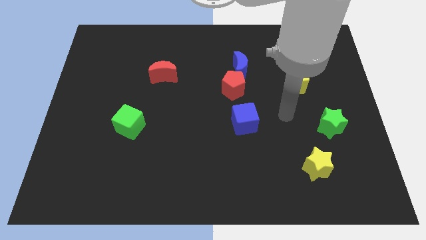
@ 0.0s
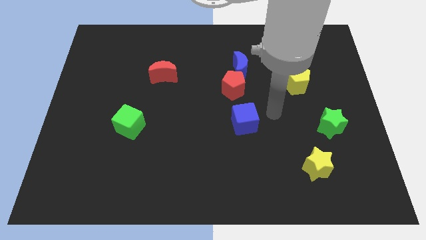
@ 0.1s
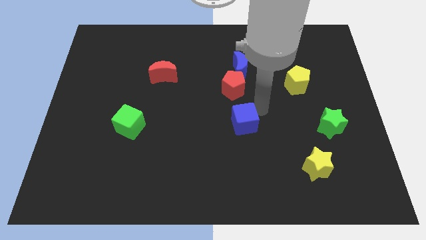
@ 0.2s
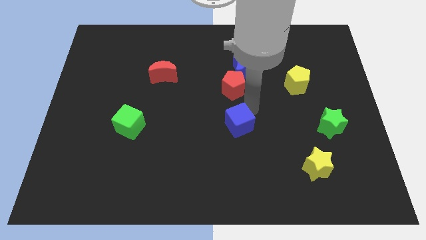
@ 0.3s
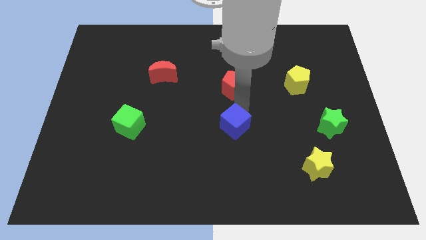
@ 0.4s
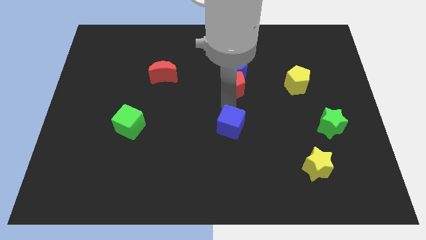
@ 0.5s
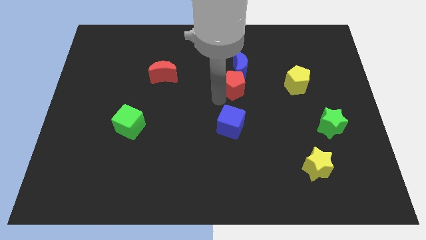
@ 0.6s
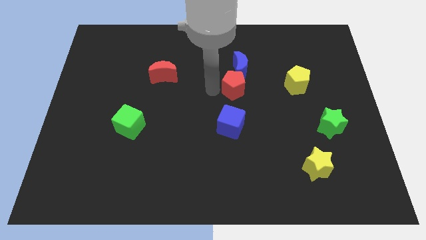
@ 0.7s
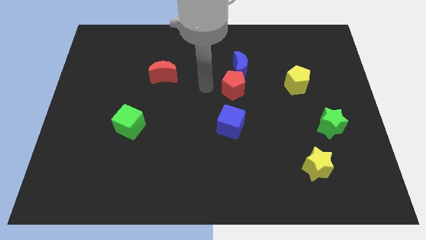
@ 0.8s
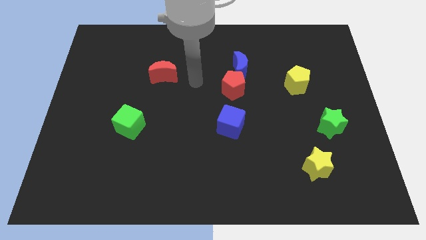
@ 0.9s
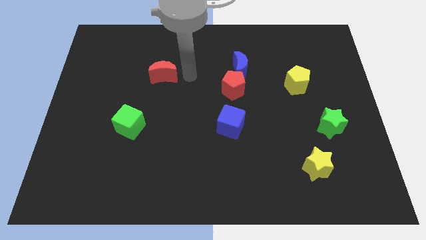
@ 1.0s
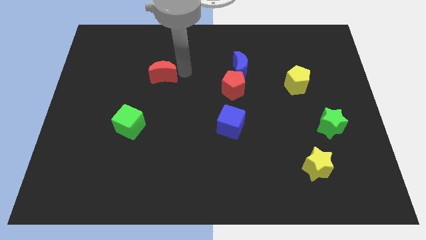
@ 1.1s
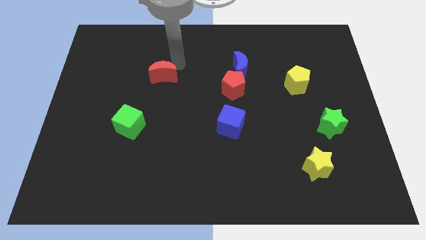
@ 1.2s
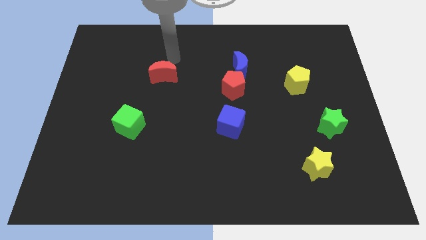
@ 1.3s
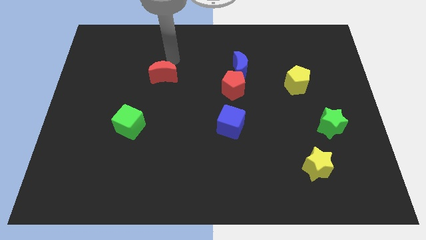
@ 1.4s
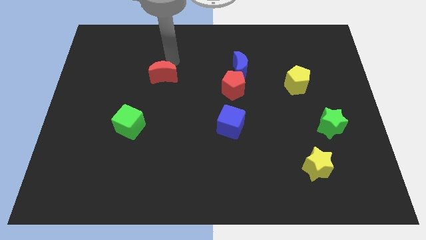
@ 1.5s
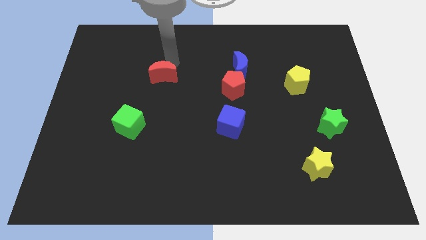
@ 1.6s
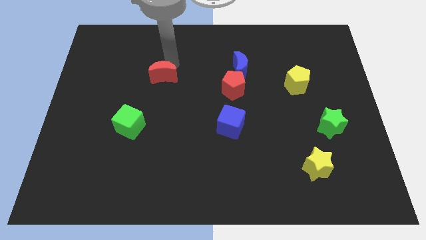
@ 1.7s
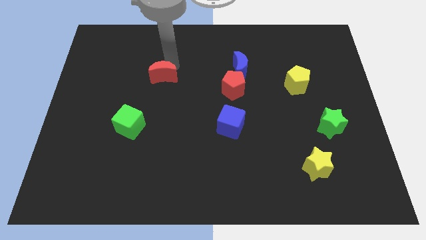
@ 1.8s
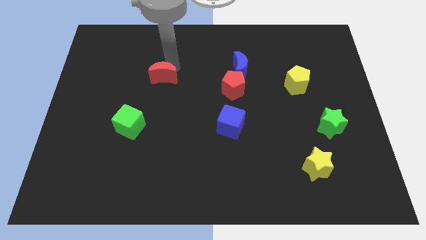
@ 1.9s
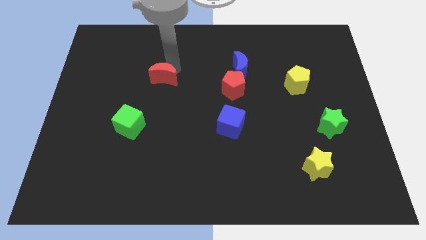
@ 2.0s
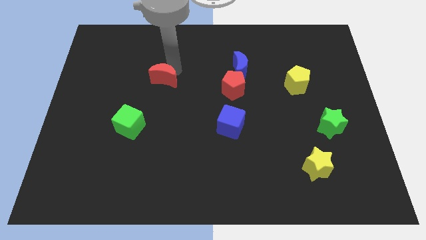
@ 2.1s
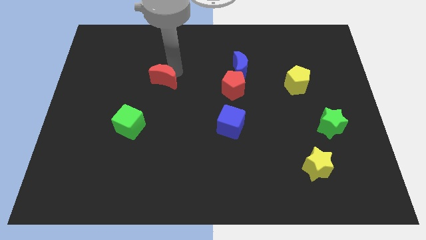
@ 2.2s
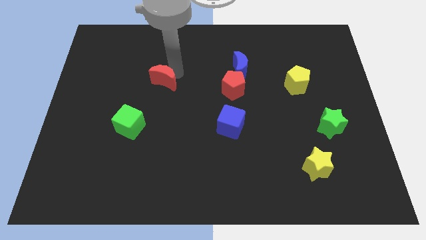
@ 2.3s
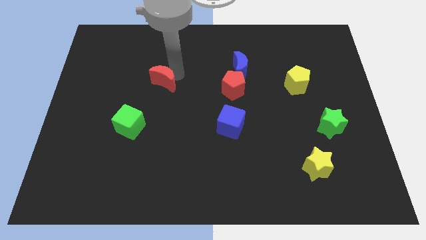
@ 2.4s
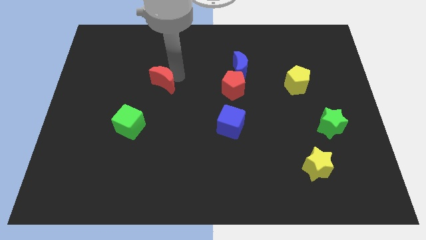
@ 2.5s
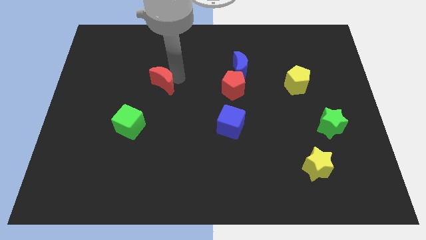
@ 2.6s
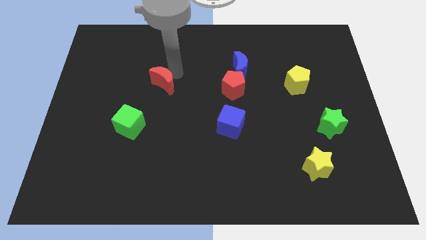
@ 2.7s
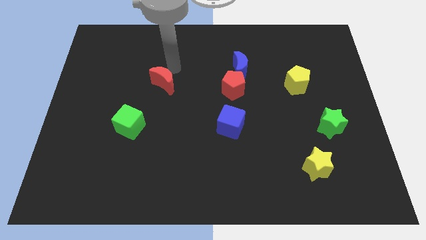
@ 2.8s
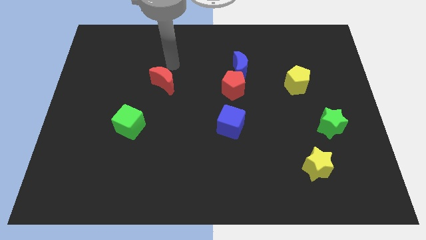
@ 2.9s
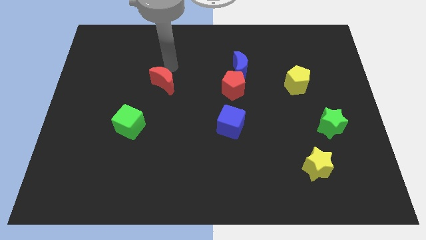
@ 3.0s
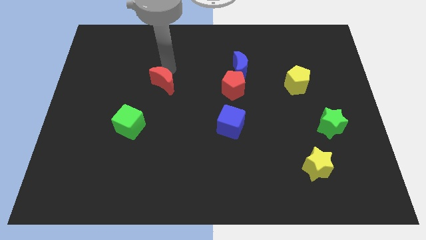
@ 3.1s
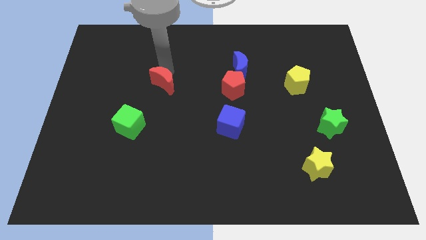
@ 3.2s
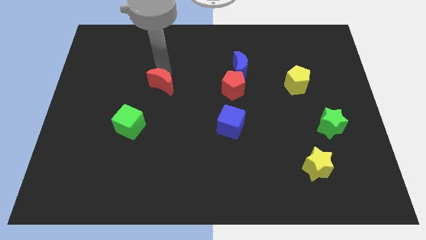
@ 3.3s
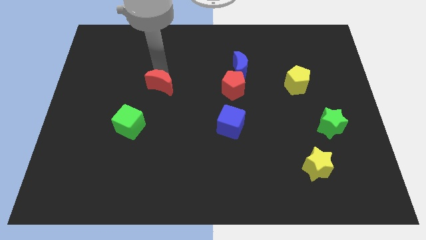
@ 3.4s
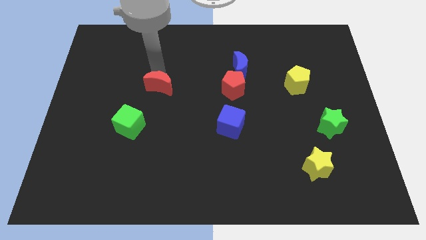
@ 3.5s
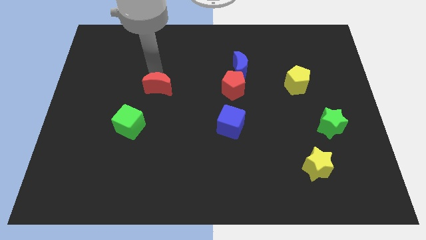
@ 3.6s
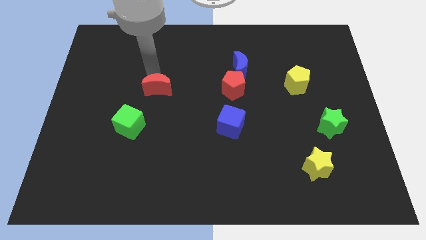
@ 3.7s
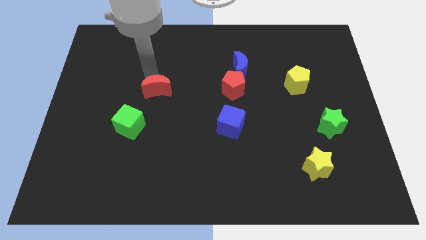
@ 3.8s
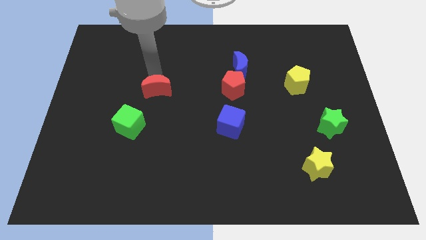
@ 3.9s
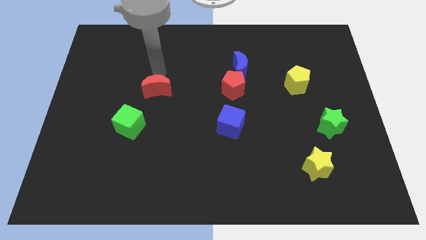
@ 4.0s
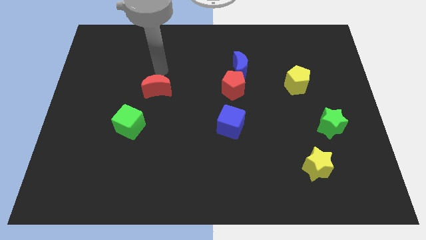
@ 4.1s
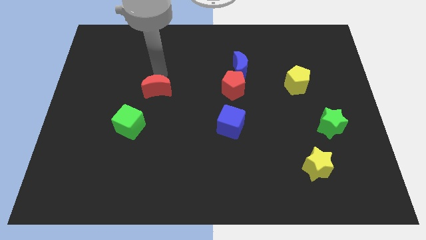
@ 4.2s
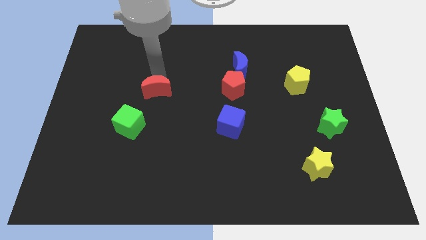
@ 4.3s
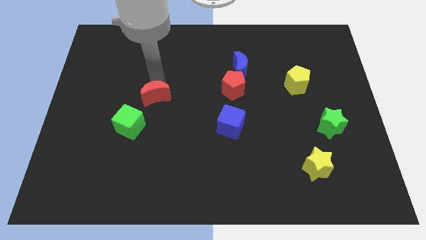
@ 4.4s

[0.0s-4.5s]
slightly slide the red moon down

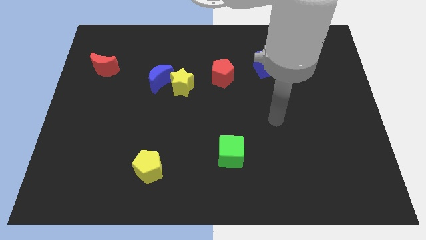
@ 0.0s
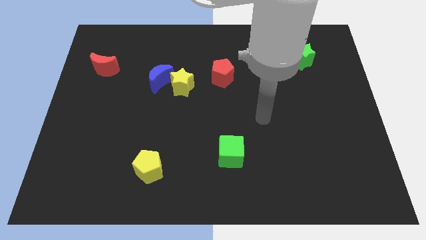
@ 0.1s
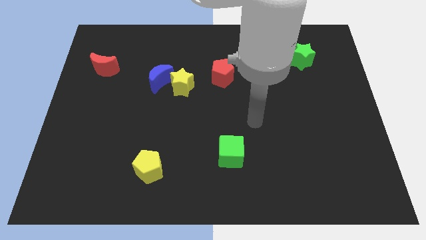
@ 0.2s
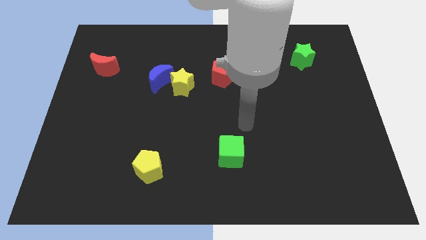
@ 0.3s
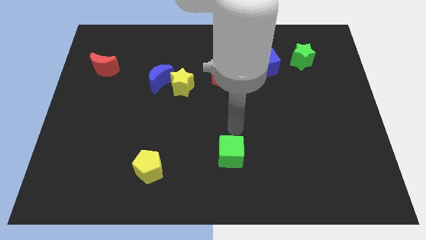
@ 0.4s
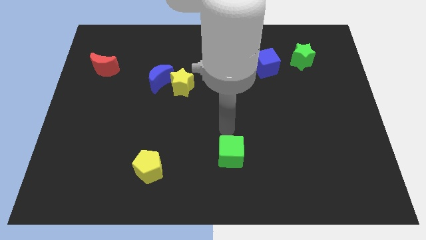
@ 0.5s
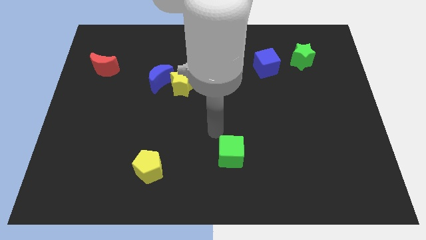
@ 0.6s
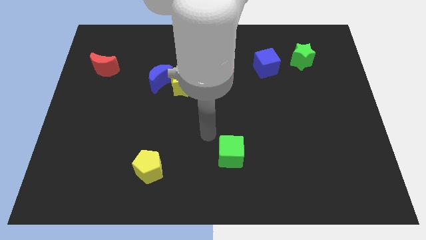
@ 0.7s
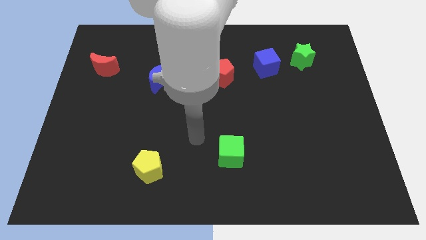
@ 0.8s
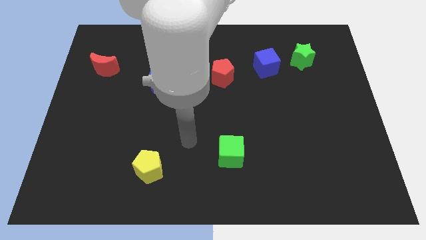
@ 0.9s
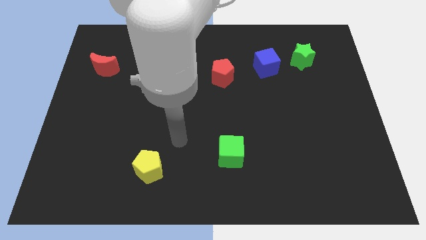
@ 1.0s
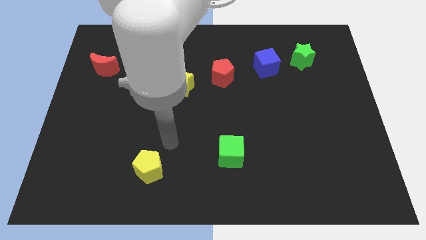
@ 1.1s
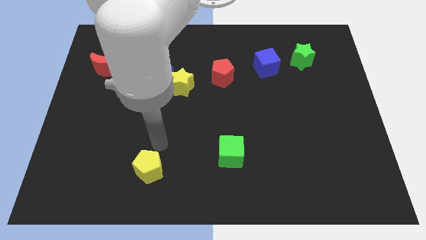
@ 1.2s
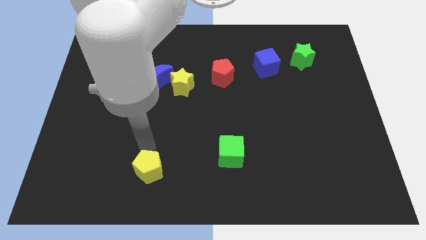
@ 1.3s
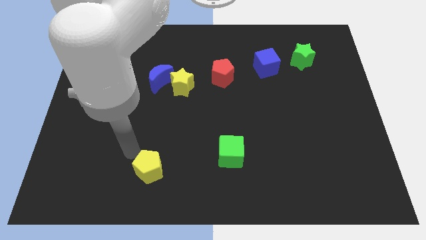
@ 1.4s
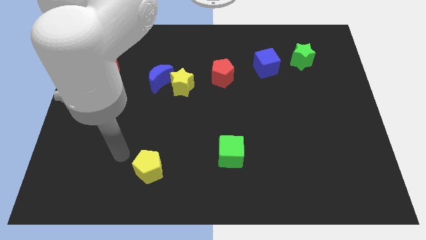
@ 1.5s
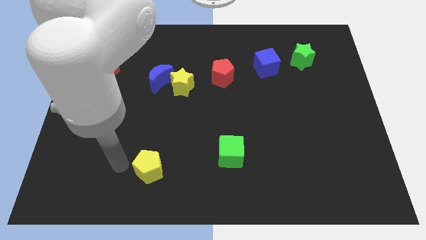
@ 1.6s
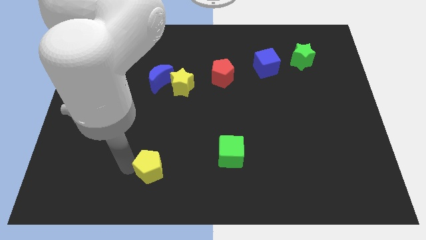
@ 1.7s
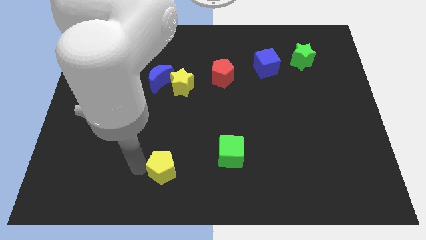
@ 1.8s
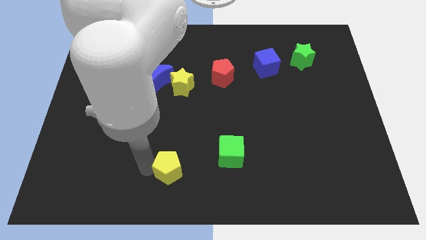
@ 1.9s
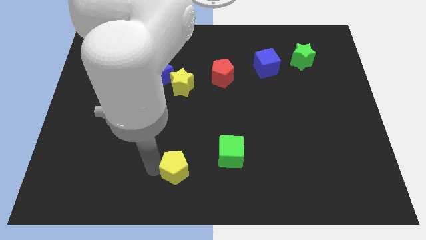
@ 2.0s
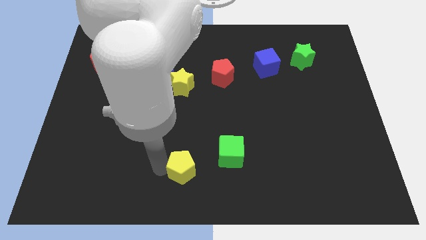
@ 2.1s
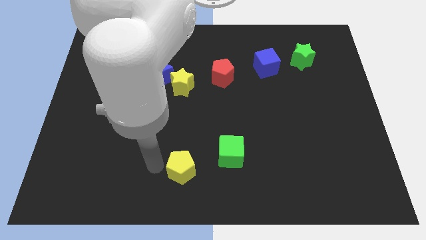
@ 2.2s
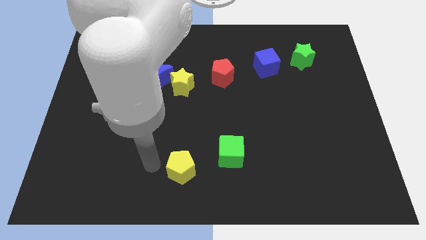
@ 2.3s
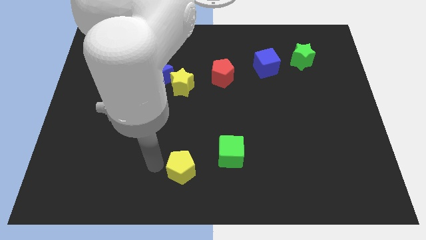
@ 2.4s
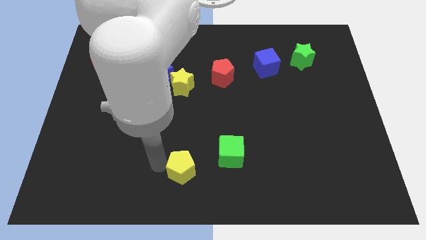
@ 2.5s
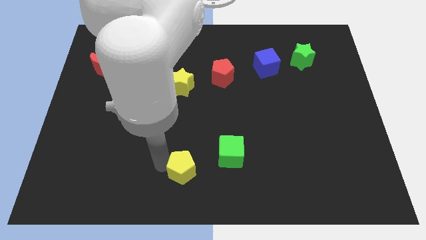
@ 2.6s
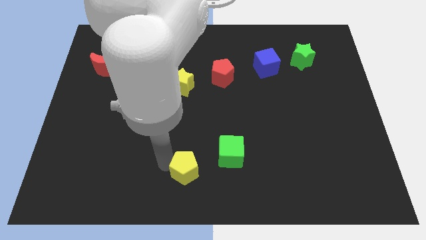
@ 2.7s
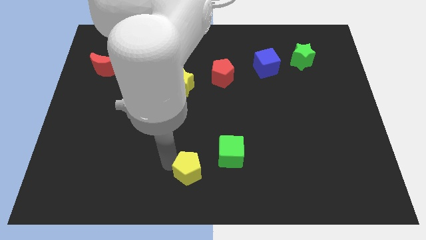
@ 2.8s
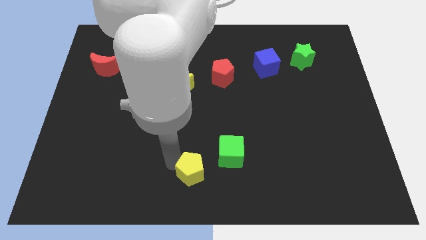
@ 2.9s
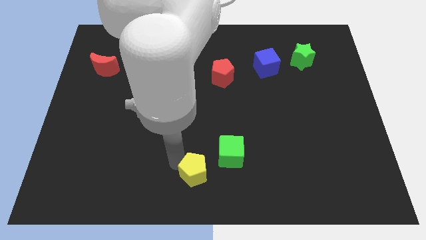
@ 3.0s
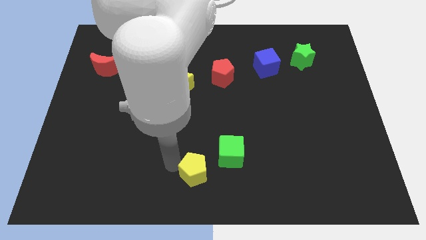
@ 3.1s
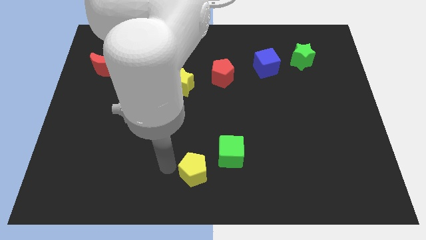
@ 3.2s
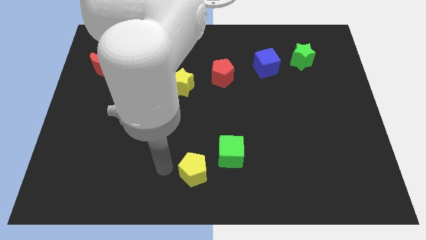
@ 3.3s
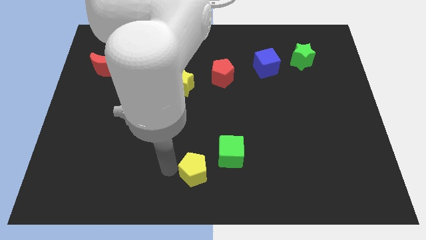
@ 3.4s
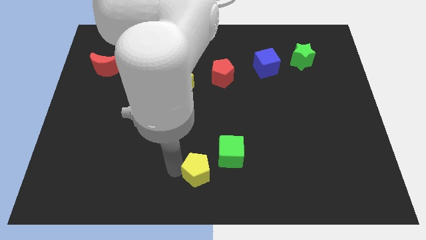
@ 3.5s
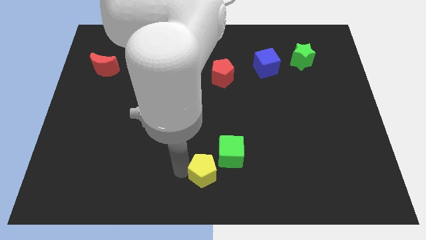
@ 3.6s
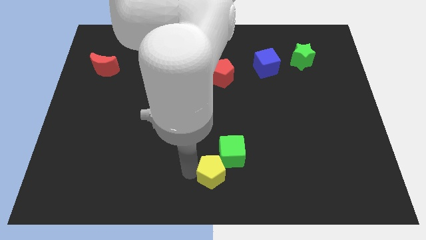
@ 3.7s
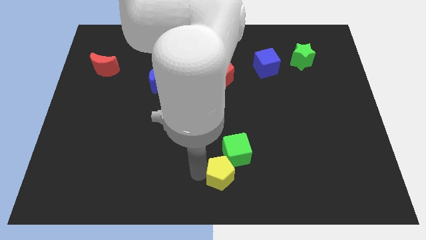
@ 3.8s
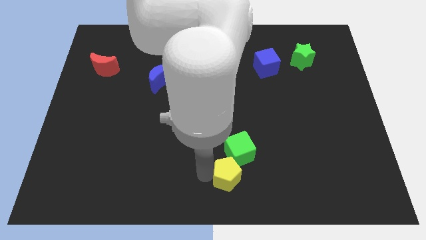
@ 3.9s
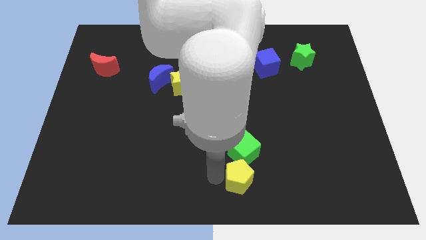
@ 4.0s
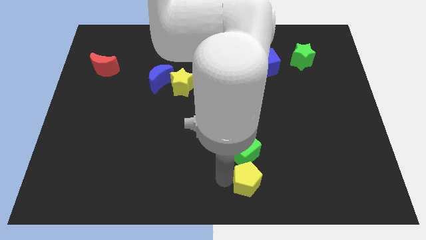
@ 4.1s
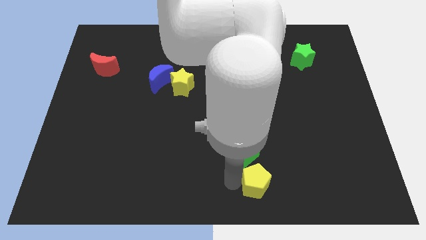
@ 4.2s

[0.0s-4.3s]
slide the yellow pentagon right
